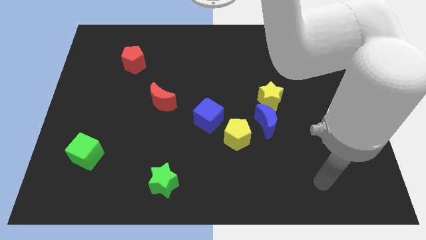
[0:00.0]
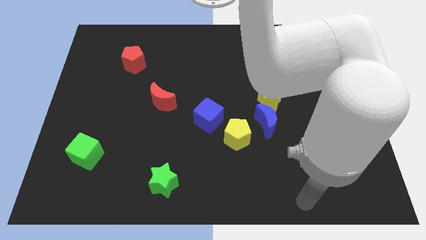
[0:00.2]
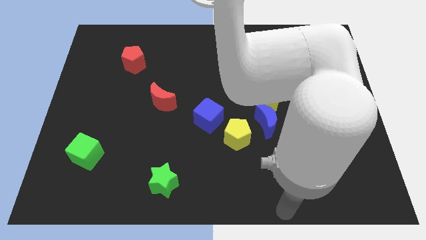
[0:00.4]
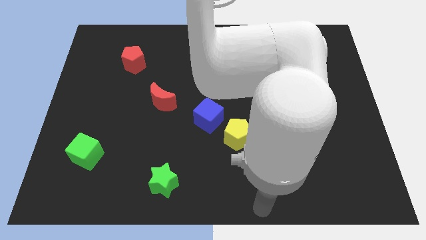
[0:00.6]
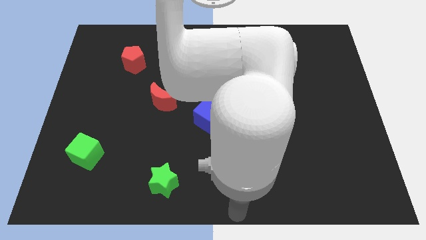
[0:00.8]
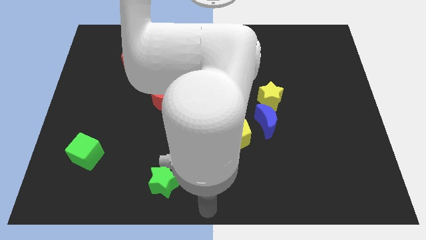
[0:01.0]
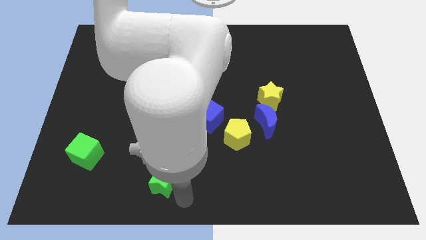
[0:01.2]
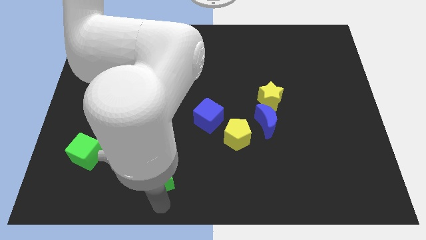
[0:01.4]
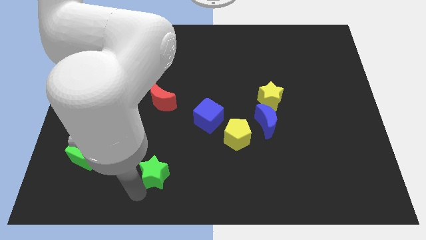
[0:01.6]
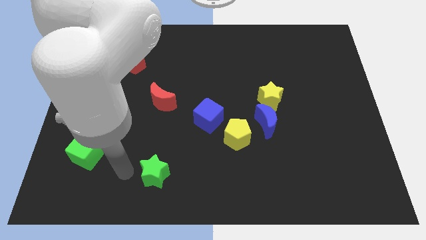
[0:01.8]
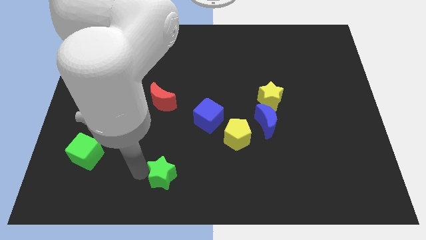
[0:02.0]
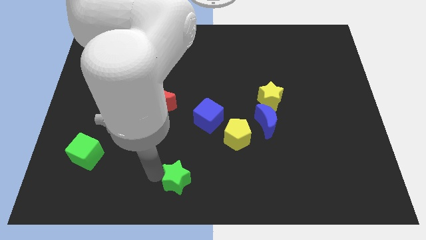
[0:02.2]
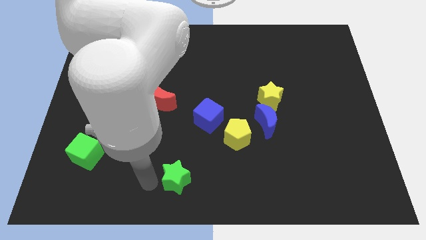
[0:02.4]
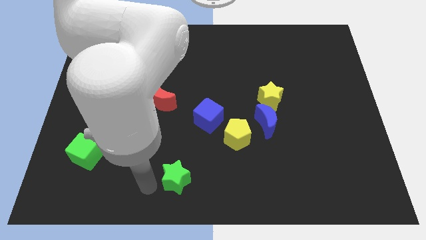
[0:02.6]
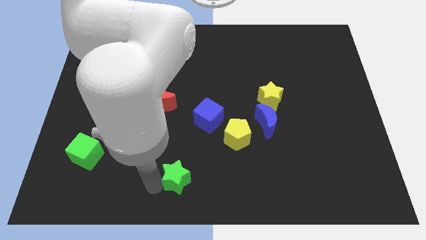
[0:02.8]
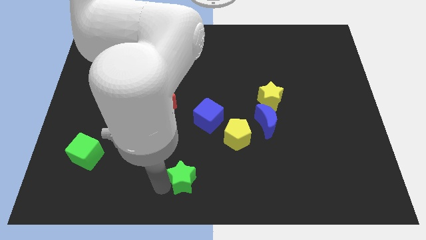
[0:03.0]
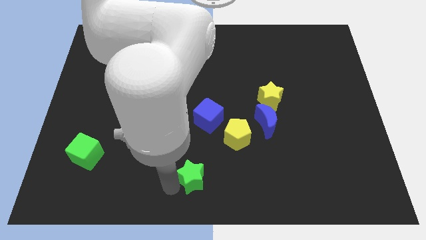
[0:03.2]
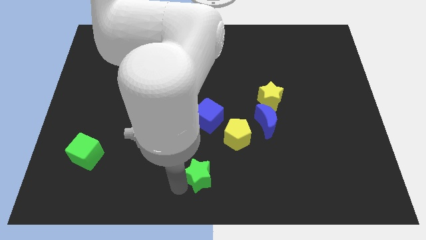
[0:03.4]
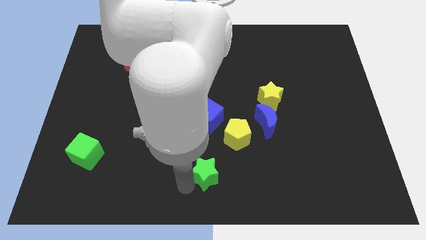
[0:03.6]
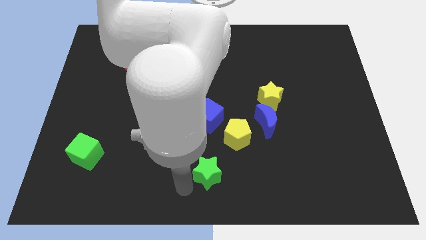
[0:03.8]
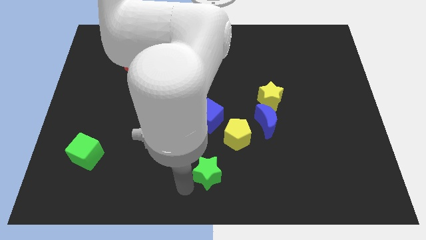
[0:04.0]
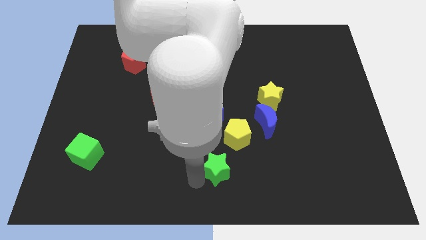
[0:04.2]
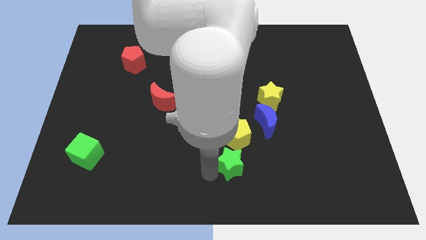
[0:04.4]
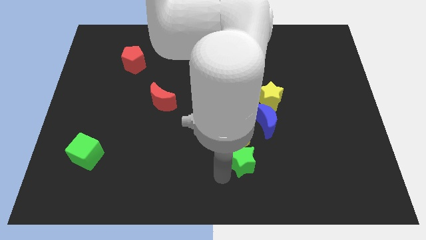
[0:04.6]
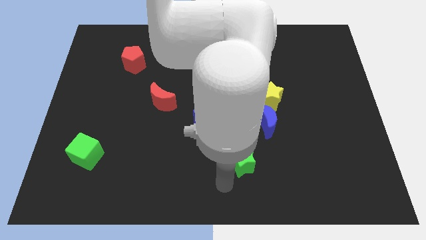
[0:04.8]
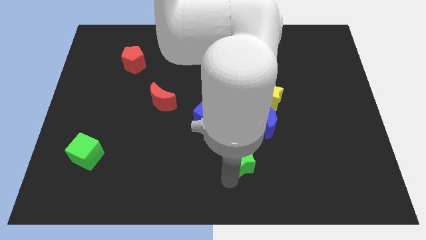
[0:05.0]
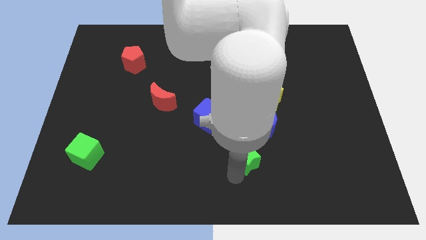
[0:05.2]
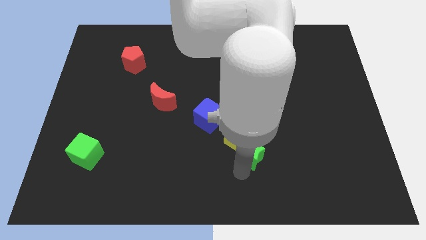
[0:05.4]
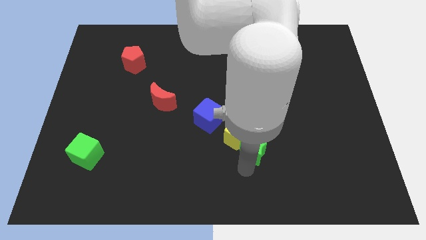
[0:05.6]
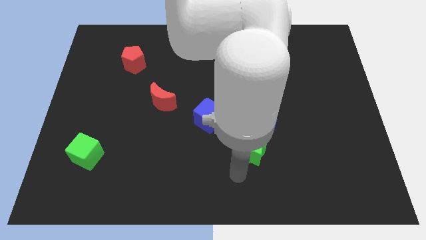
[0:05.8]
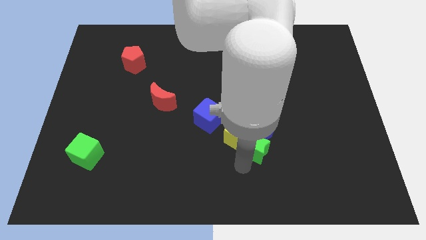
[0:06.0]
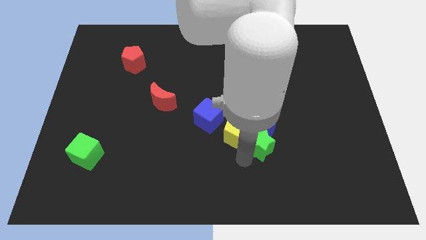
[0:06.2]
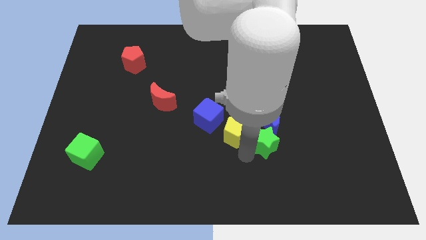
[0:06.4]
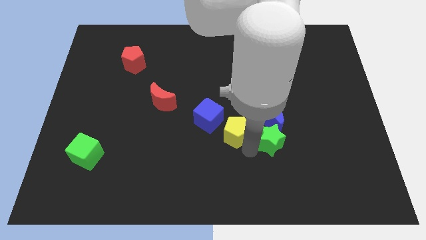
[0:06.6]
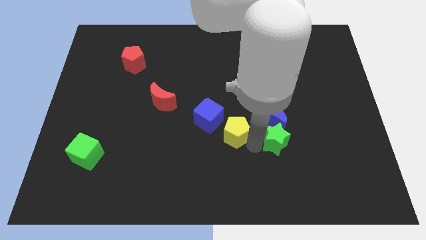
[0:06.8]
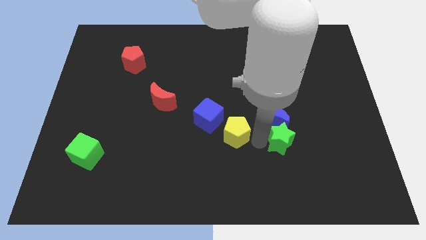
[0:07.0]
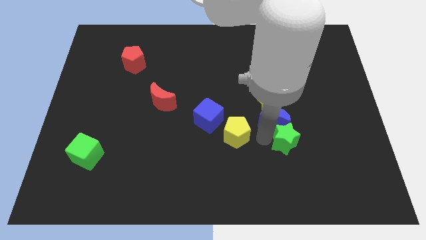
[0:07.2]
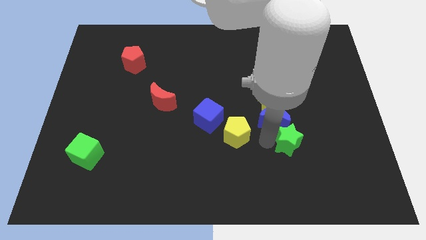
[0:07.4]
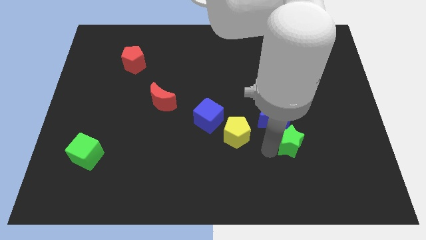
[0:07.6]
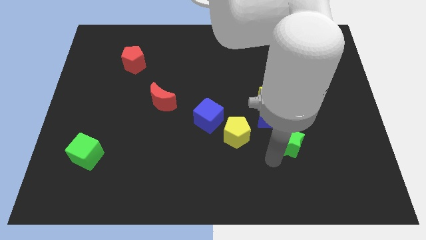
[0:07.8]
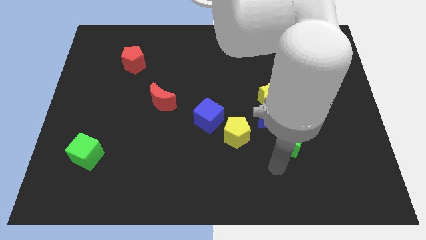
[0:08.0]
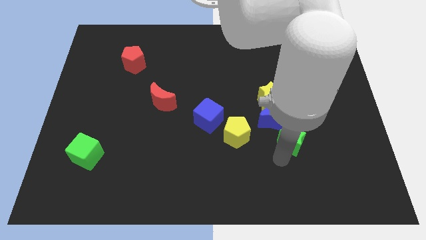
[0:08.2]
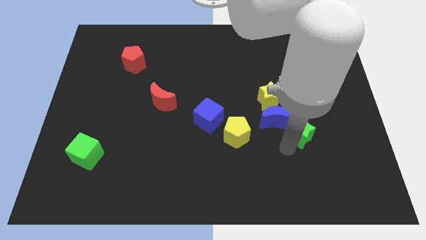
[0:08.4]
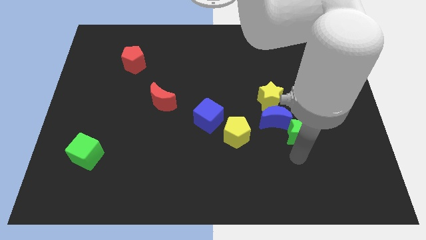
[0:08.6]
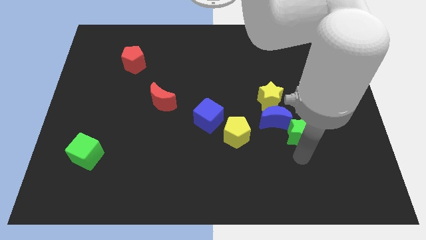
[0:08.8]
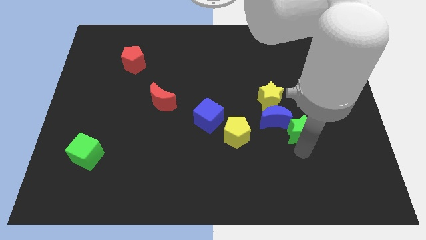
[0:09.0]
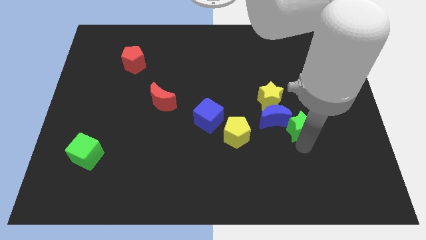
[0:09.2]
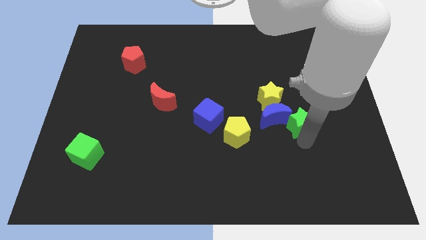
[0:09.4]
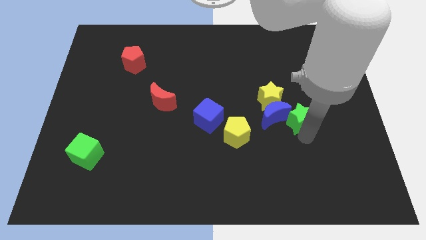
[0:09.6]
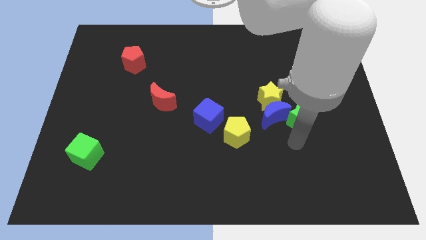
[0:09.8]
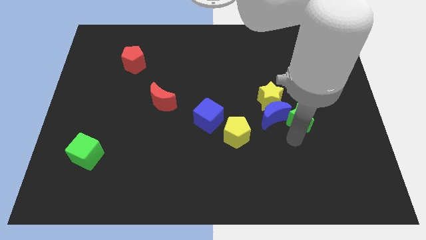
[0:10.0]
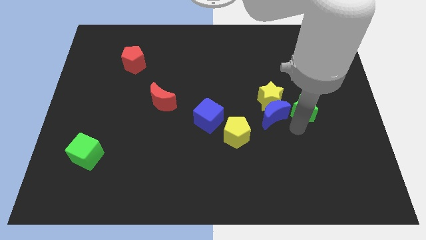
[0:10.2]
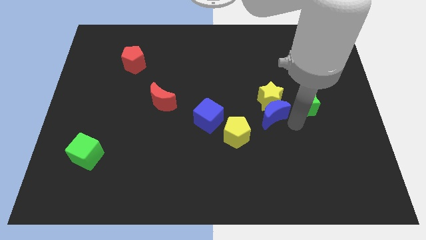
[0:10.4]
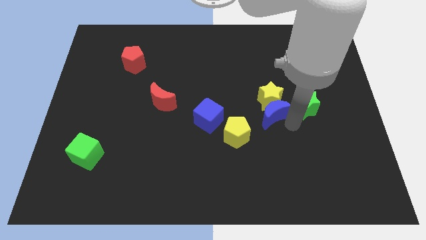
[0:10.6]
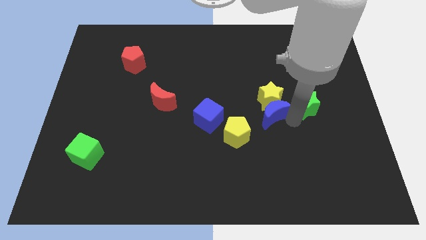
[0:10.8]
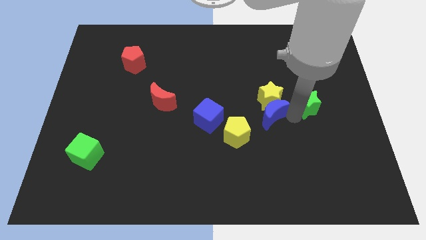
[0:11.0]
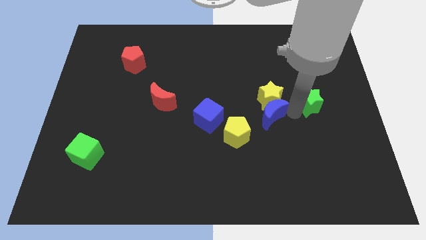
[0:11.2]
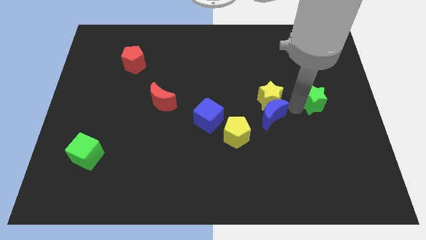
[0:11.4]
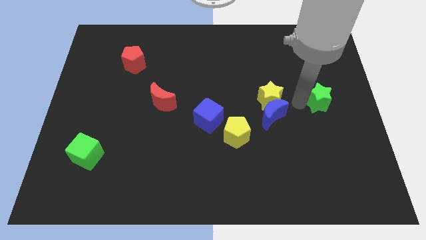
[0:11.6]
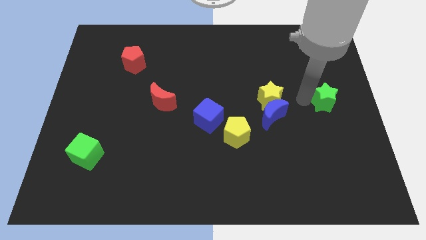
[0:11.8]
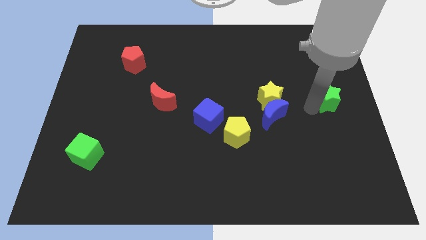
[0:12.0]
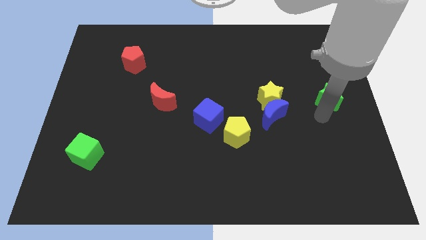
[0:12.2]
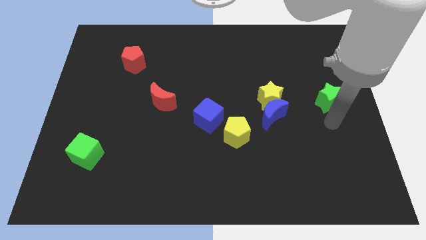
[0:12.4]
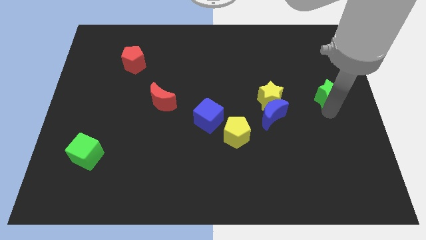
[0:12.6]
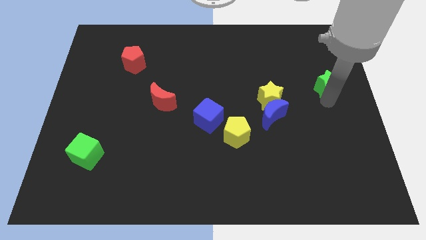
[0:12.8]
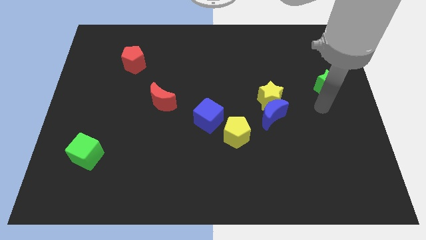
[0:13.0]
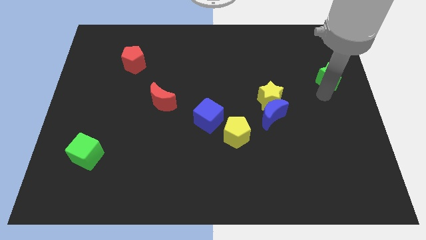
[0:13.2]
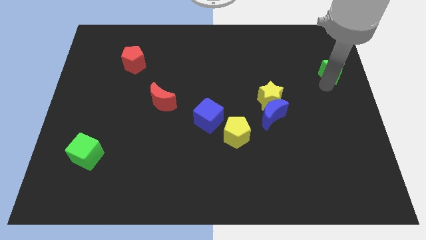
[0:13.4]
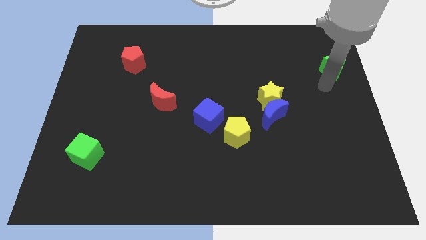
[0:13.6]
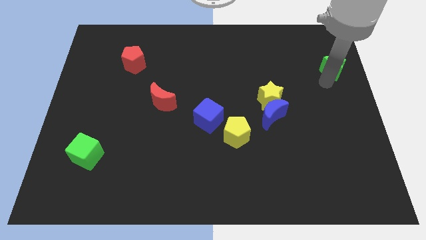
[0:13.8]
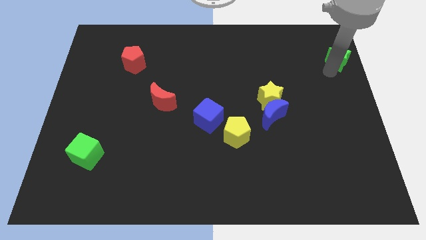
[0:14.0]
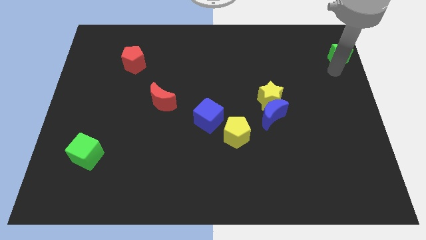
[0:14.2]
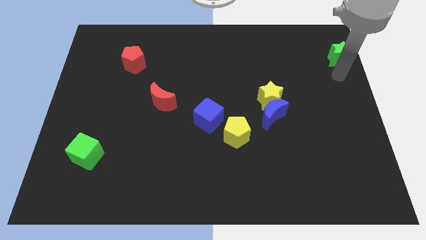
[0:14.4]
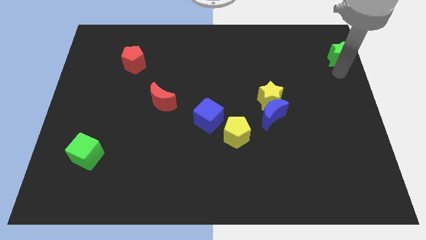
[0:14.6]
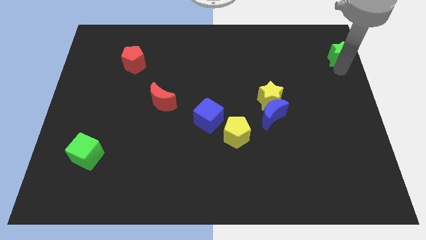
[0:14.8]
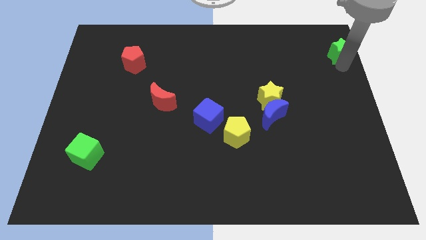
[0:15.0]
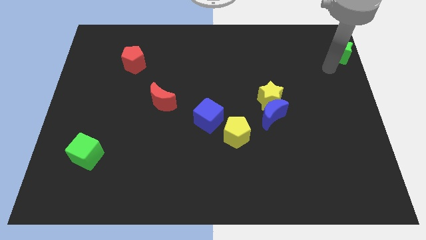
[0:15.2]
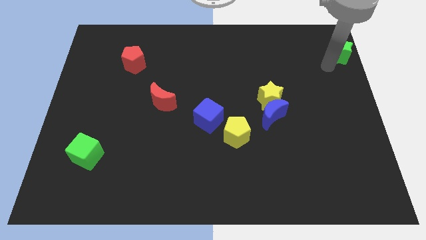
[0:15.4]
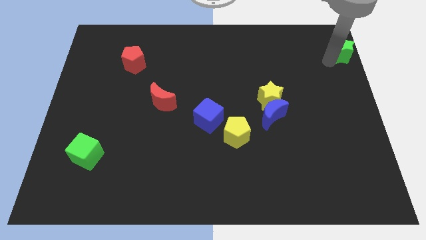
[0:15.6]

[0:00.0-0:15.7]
move the green star to the upper right corner
